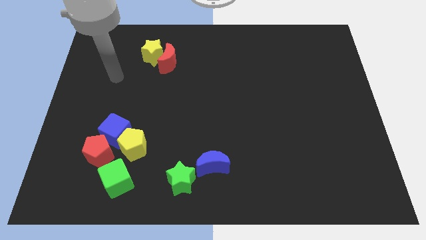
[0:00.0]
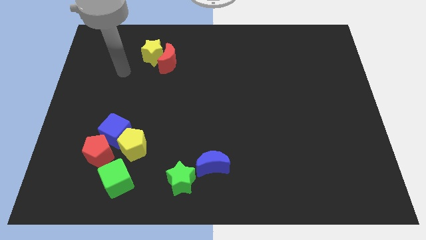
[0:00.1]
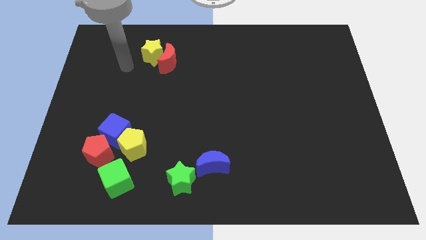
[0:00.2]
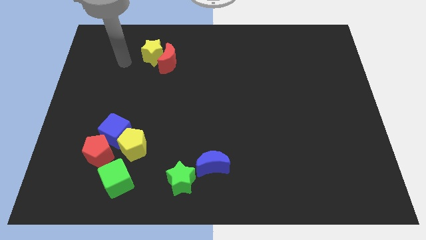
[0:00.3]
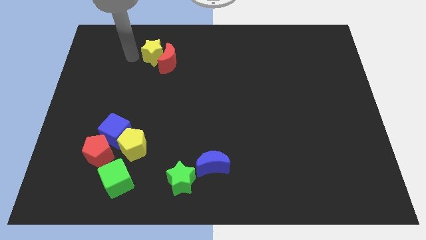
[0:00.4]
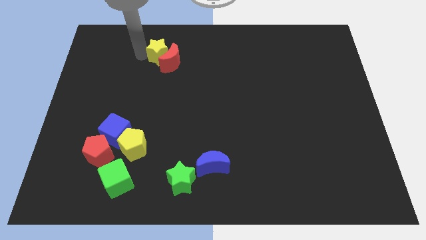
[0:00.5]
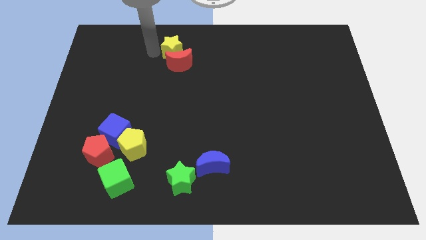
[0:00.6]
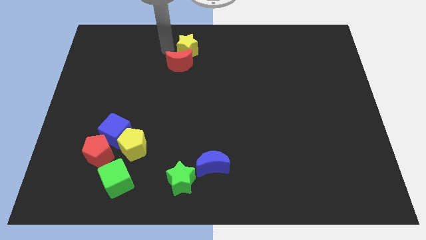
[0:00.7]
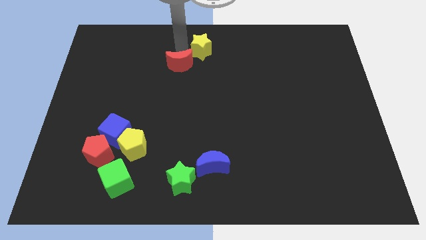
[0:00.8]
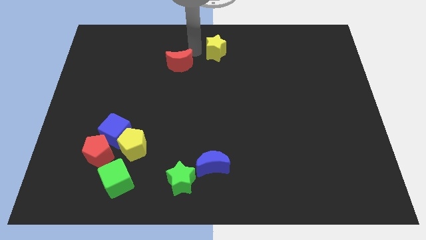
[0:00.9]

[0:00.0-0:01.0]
move the red moon away from the yellow star

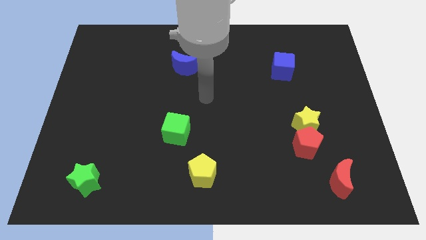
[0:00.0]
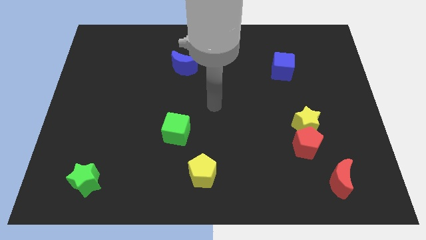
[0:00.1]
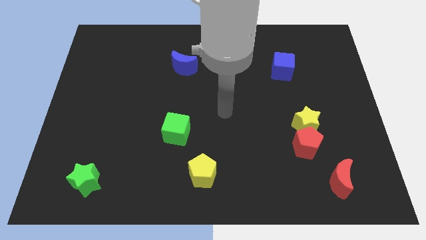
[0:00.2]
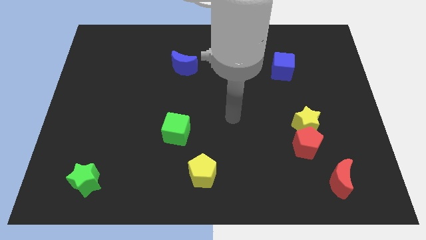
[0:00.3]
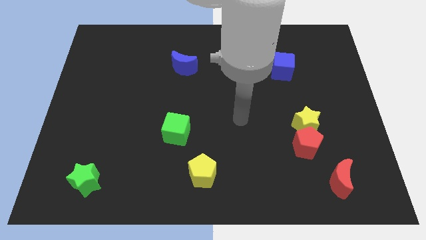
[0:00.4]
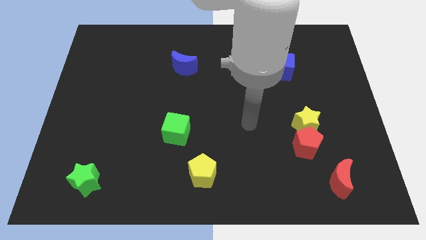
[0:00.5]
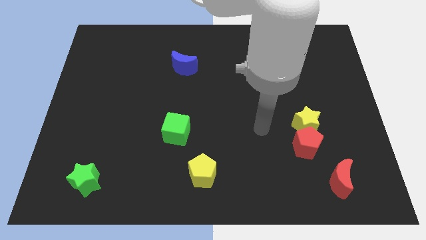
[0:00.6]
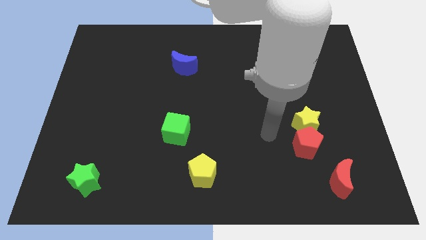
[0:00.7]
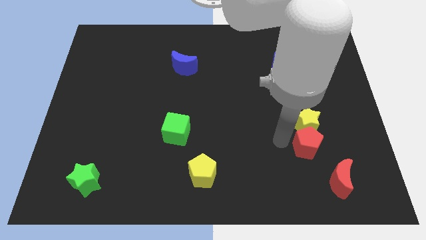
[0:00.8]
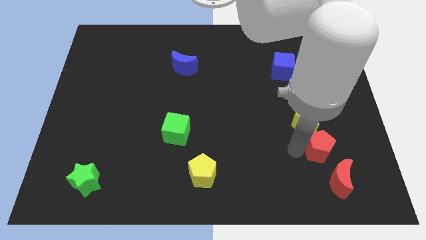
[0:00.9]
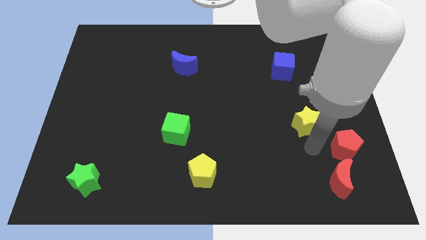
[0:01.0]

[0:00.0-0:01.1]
pull the yellow star apart from the red pentagon

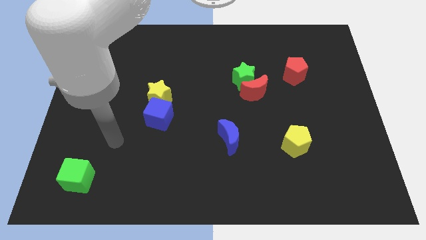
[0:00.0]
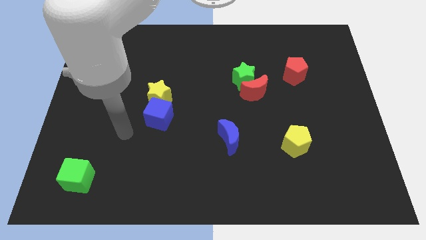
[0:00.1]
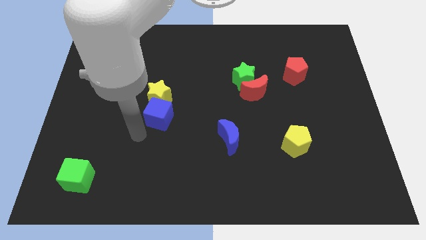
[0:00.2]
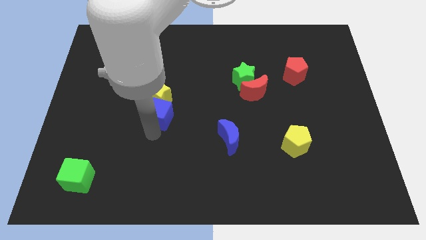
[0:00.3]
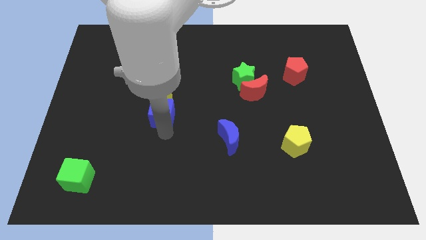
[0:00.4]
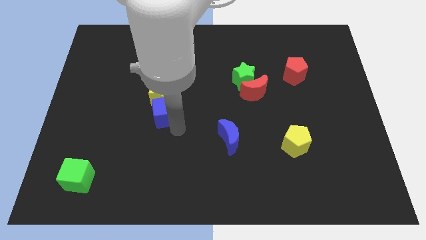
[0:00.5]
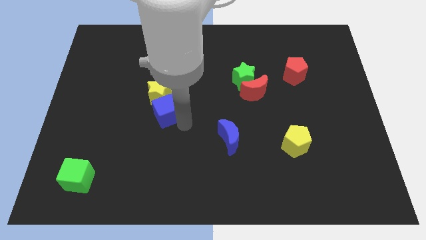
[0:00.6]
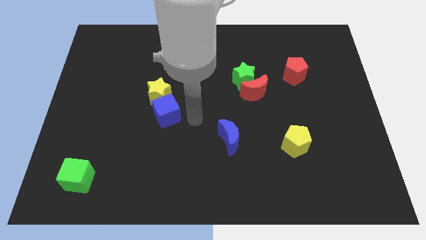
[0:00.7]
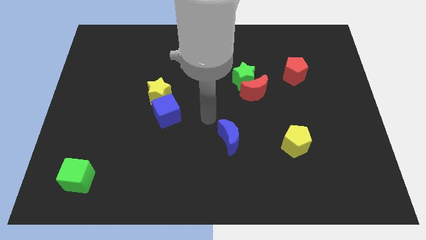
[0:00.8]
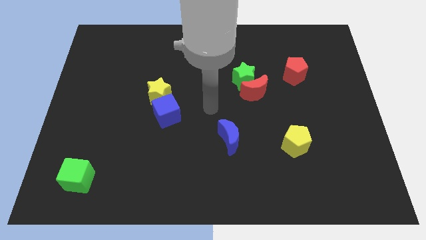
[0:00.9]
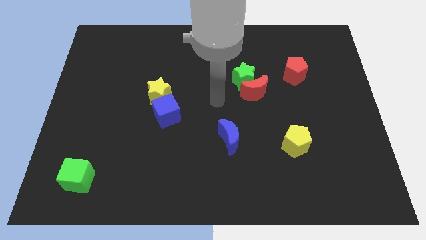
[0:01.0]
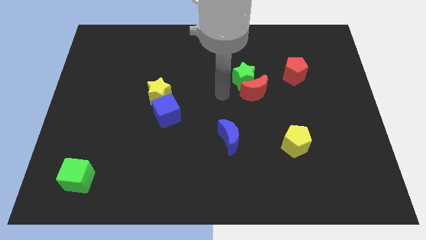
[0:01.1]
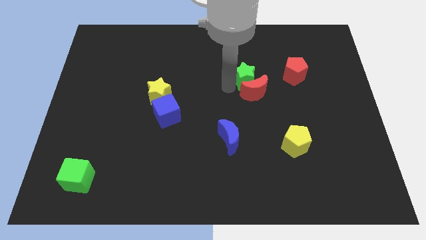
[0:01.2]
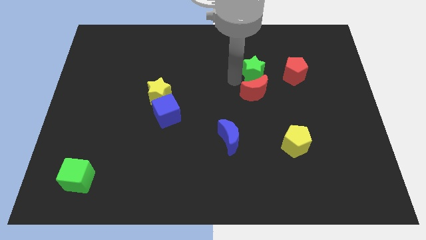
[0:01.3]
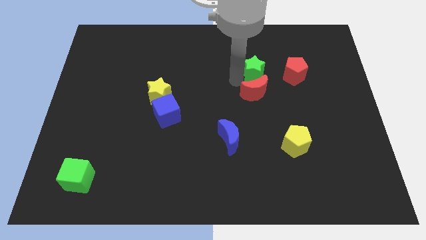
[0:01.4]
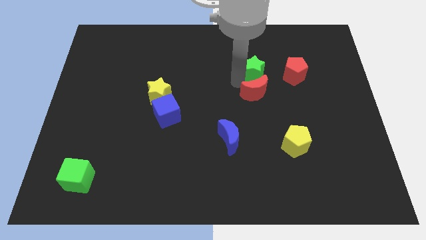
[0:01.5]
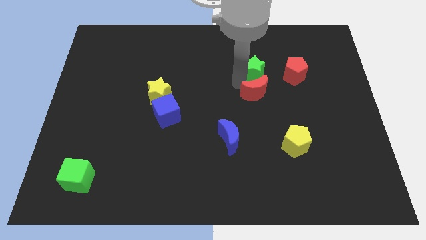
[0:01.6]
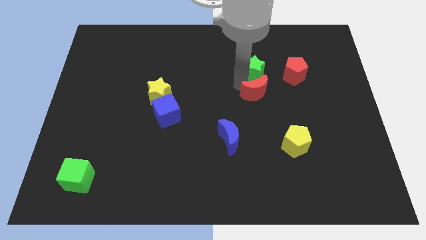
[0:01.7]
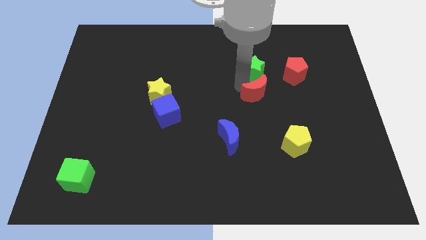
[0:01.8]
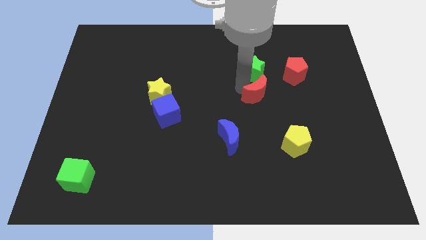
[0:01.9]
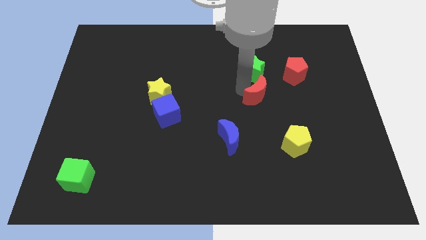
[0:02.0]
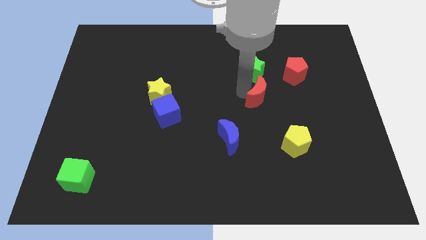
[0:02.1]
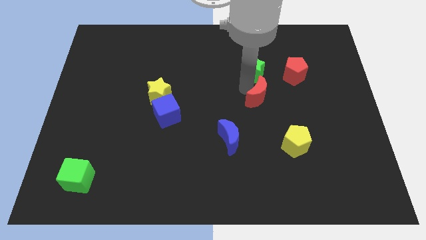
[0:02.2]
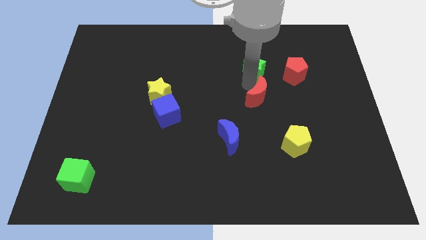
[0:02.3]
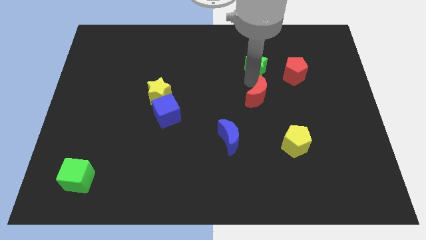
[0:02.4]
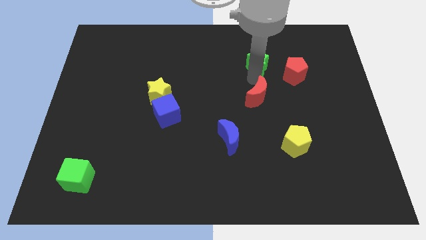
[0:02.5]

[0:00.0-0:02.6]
move the red moon away from the green star

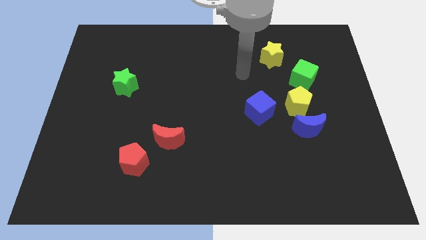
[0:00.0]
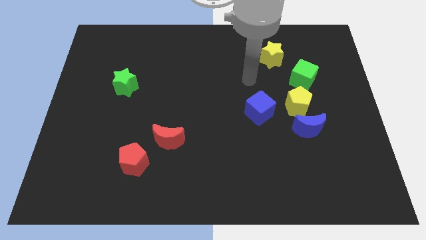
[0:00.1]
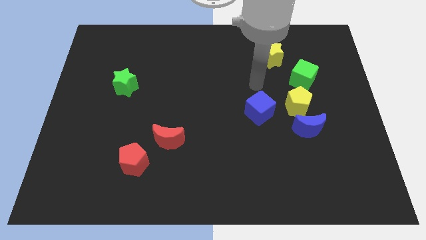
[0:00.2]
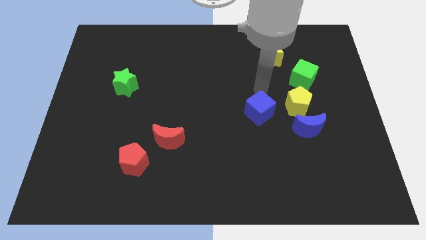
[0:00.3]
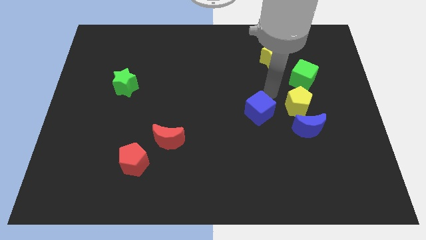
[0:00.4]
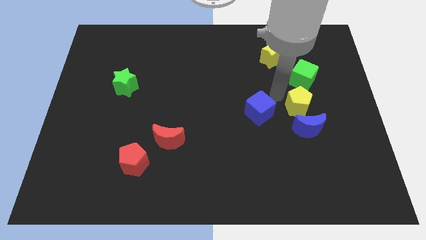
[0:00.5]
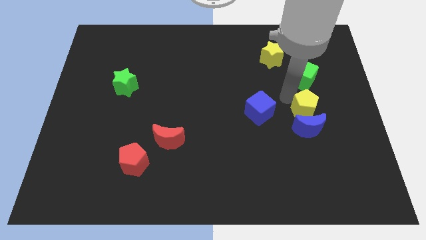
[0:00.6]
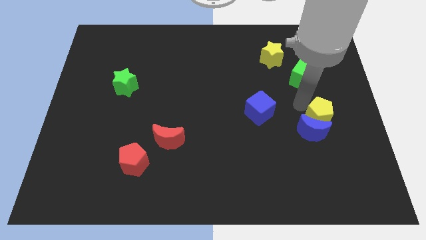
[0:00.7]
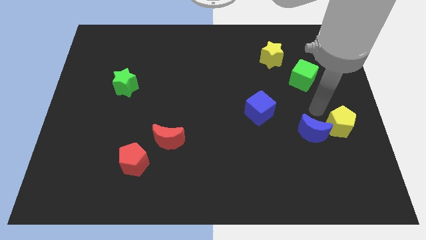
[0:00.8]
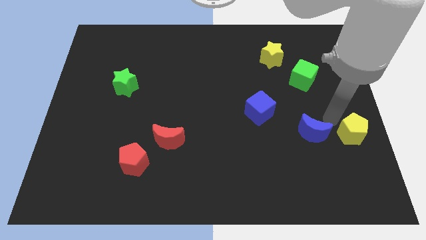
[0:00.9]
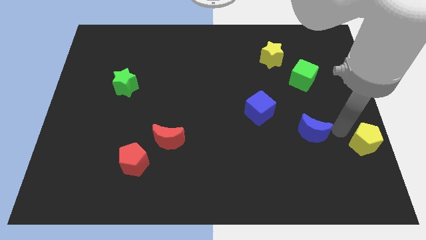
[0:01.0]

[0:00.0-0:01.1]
pull the blue moon apart from the yellow pentagon

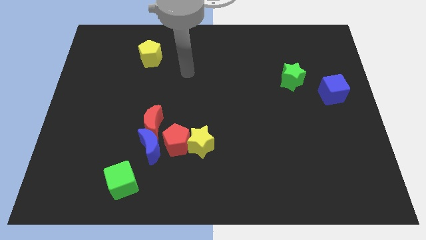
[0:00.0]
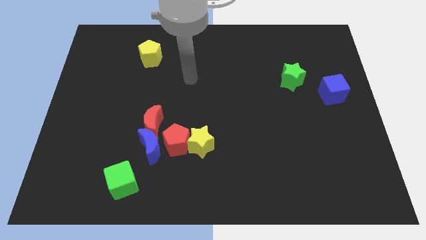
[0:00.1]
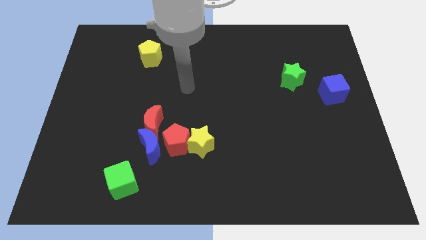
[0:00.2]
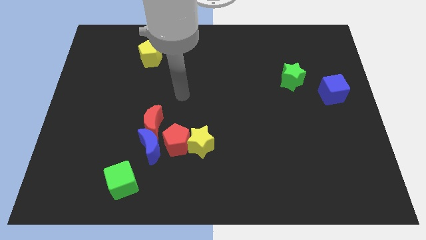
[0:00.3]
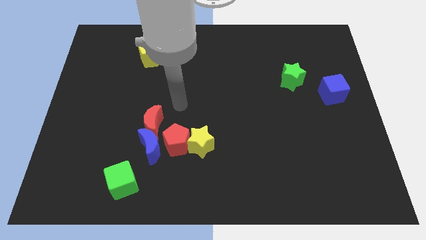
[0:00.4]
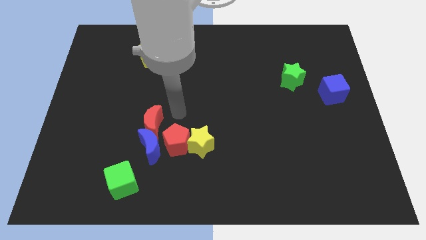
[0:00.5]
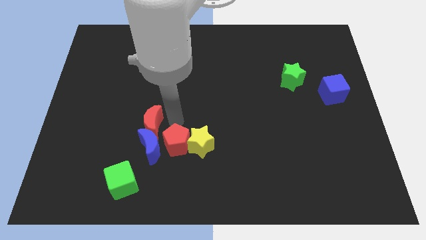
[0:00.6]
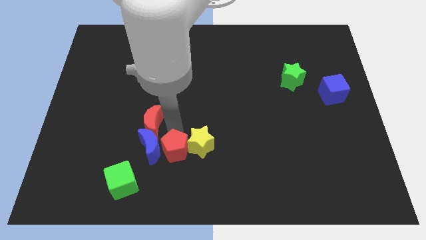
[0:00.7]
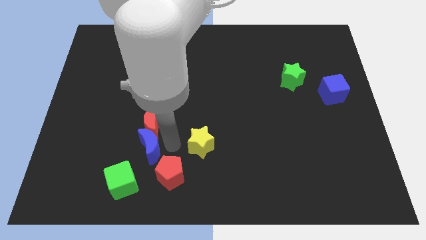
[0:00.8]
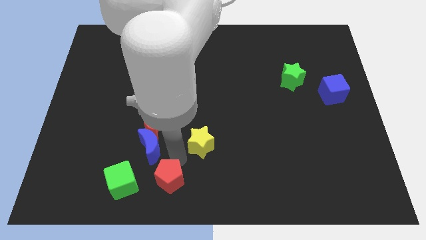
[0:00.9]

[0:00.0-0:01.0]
separate the yellow star from the red pentagon

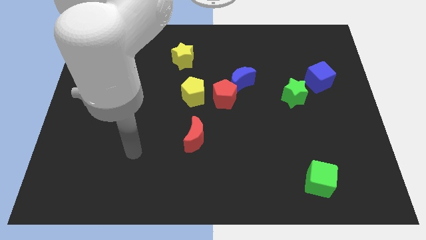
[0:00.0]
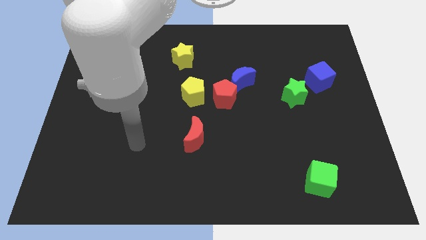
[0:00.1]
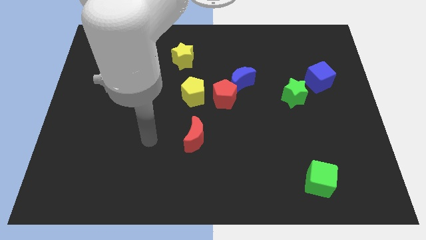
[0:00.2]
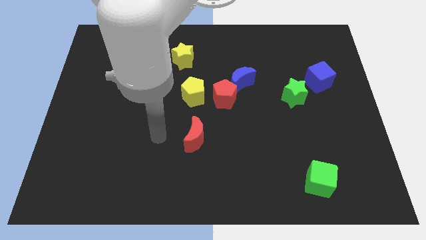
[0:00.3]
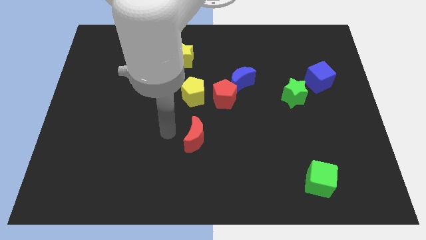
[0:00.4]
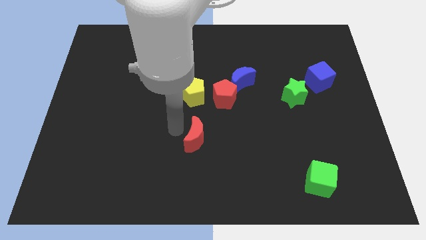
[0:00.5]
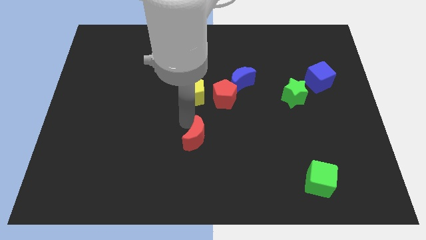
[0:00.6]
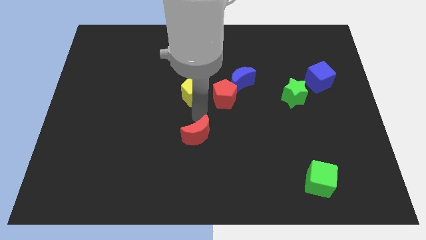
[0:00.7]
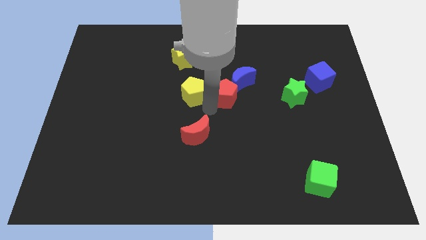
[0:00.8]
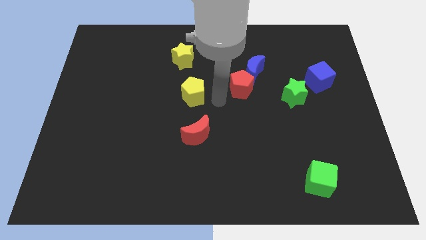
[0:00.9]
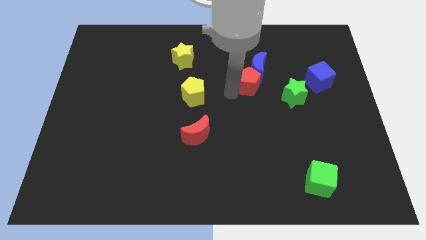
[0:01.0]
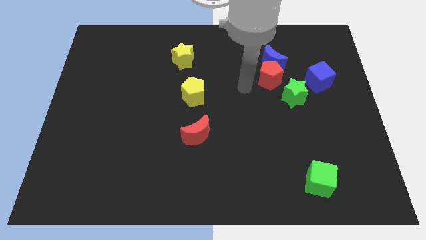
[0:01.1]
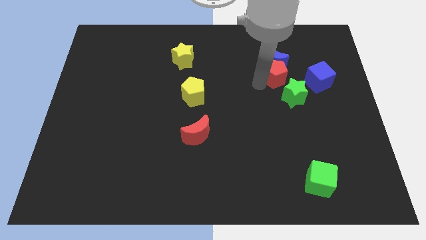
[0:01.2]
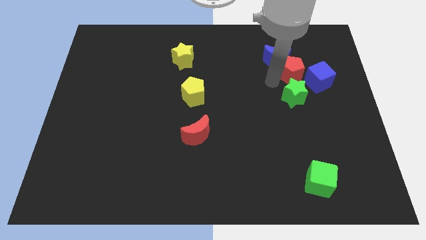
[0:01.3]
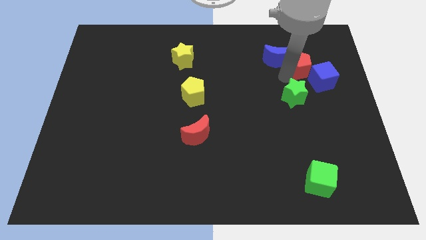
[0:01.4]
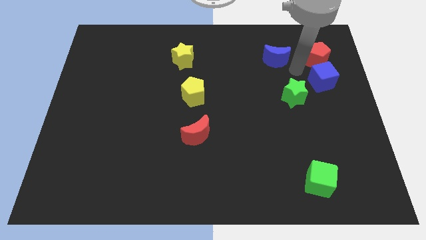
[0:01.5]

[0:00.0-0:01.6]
pull the blue moon apart from the red pentagon

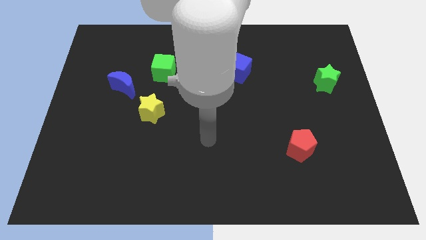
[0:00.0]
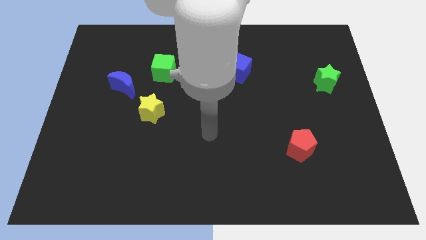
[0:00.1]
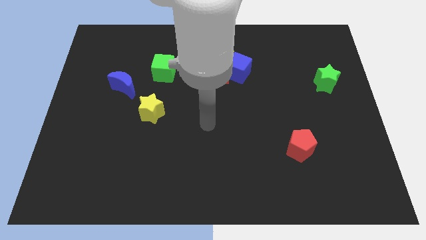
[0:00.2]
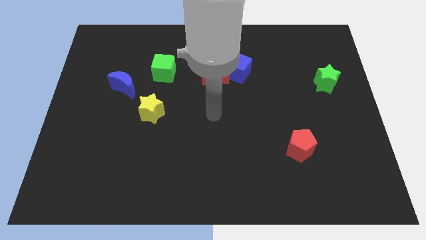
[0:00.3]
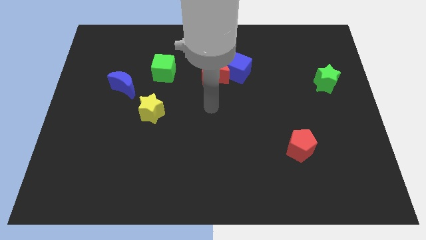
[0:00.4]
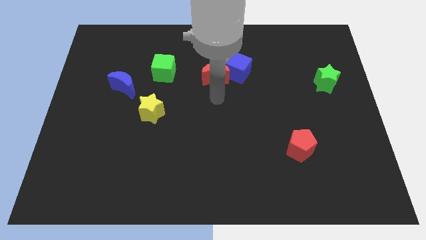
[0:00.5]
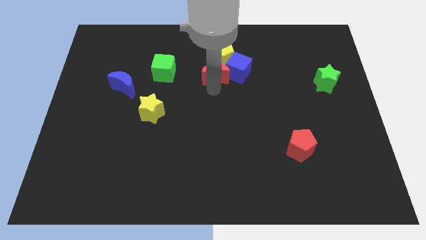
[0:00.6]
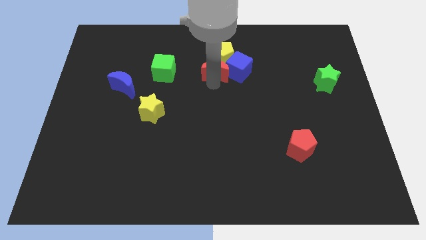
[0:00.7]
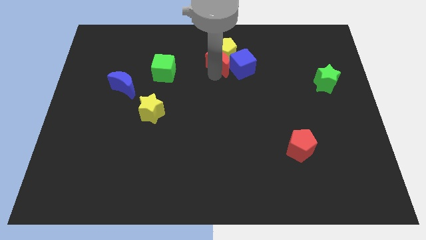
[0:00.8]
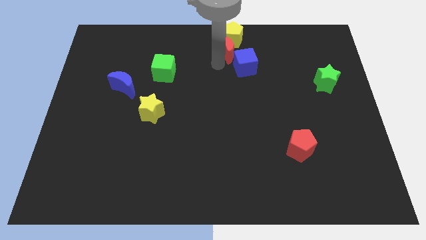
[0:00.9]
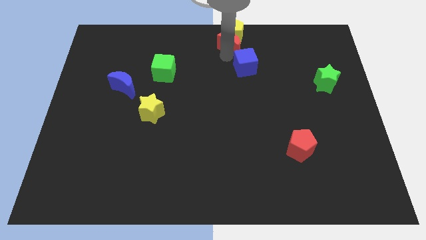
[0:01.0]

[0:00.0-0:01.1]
pull the blue cube apart from the yellow pentagon and red moon
